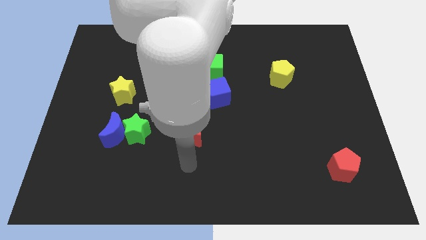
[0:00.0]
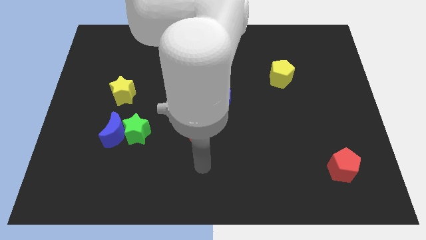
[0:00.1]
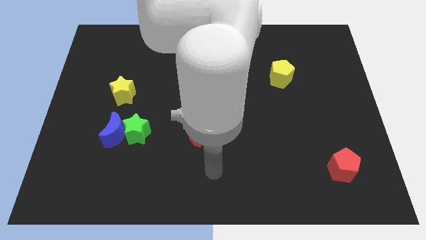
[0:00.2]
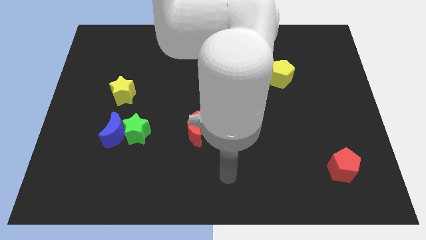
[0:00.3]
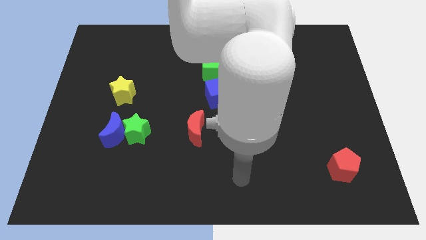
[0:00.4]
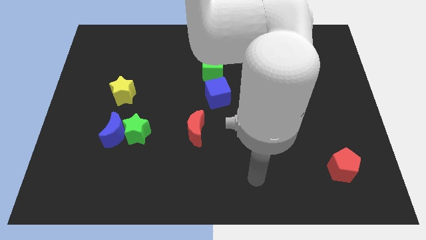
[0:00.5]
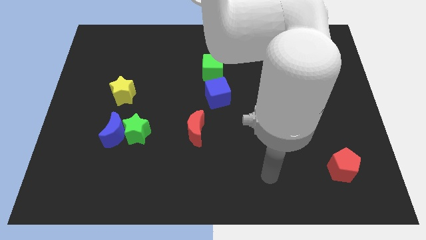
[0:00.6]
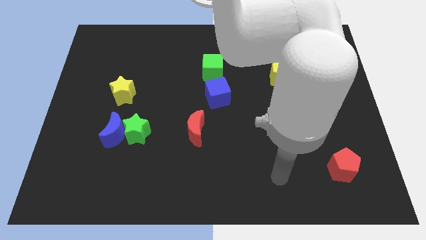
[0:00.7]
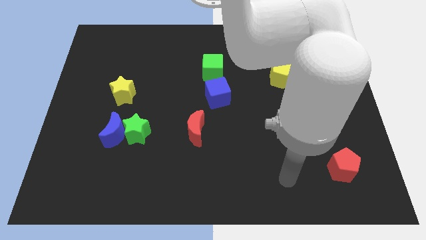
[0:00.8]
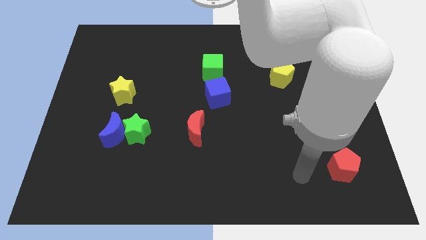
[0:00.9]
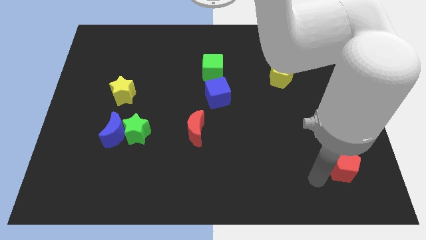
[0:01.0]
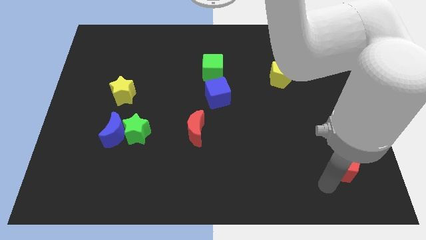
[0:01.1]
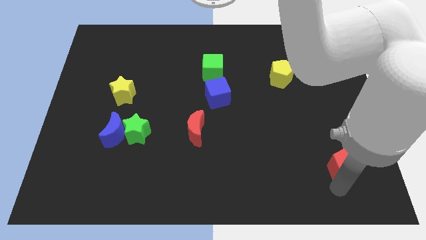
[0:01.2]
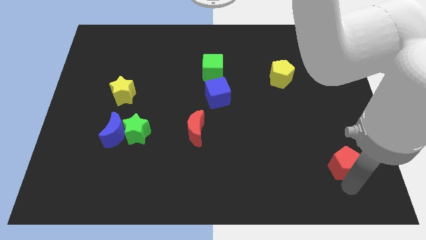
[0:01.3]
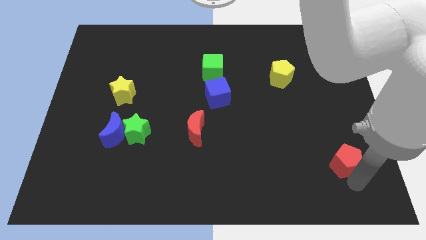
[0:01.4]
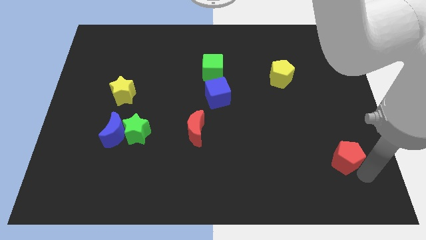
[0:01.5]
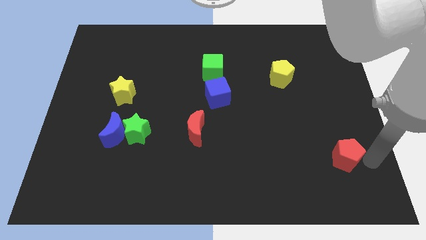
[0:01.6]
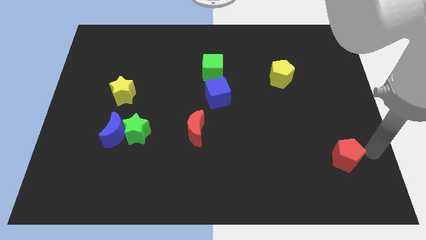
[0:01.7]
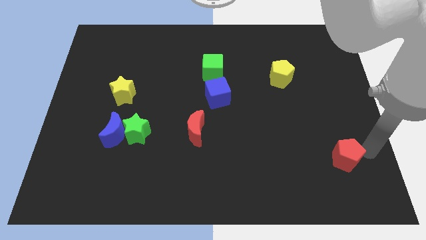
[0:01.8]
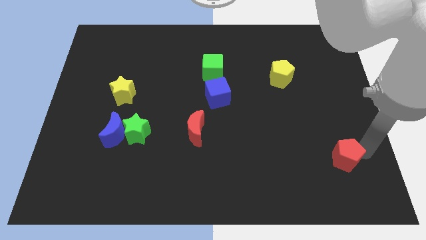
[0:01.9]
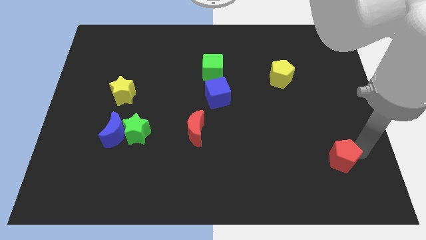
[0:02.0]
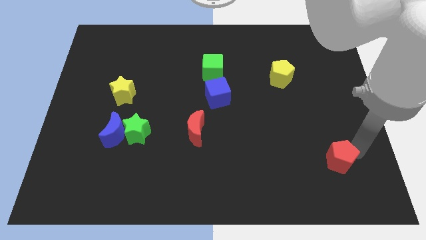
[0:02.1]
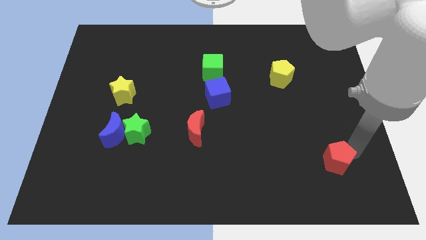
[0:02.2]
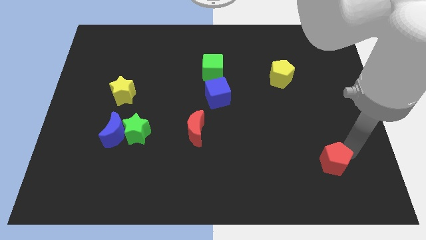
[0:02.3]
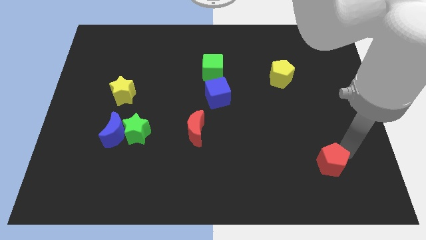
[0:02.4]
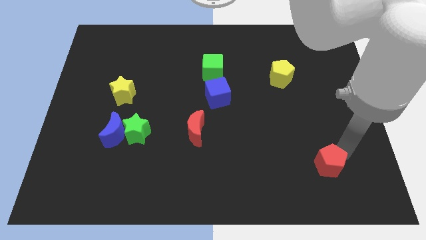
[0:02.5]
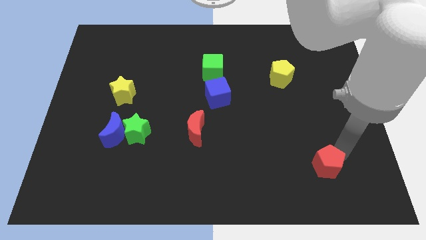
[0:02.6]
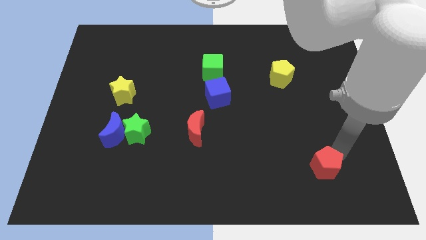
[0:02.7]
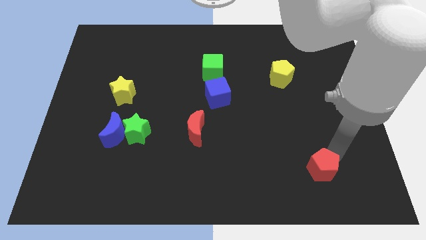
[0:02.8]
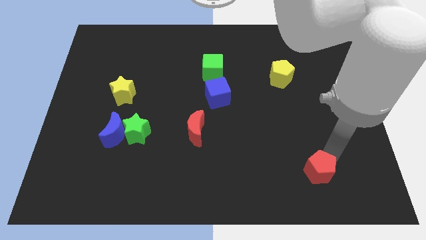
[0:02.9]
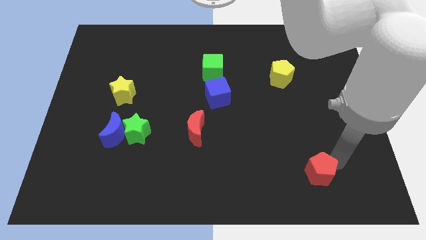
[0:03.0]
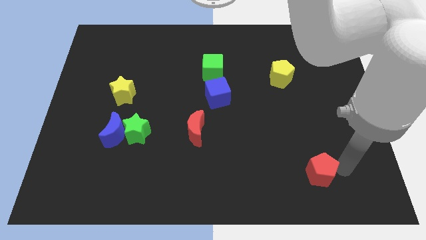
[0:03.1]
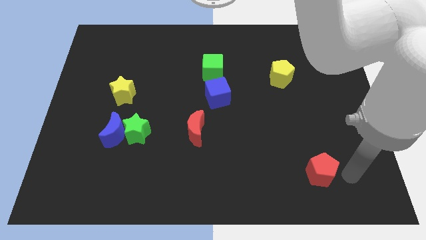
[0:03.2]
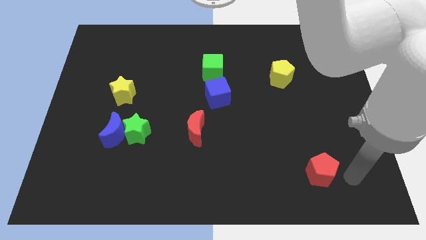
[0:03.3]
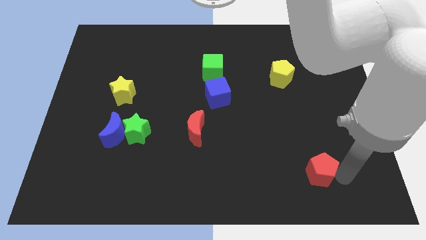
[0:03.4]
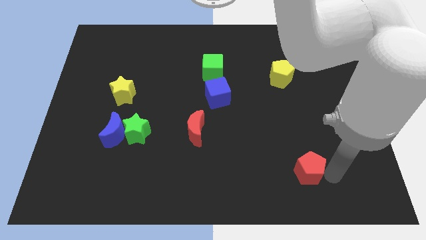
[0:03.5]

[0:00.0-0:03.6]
slightly move the red pentagon to the left

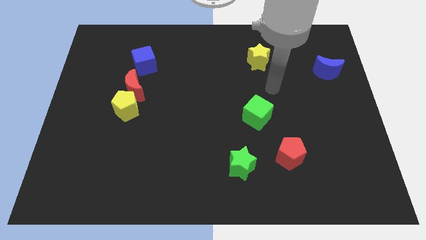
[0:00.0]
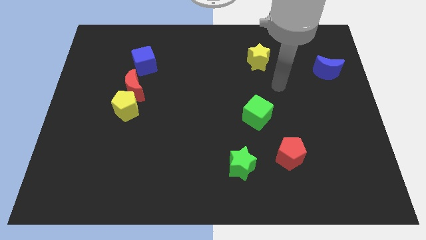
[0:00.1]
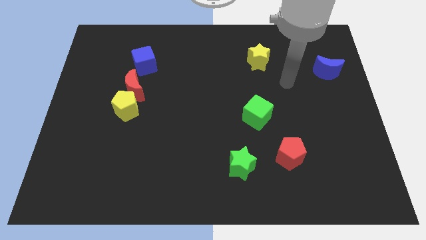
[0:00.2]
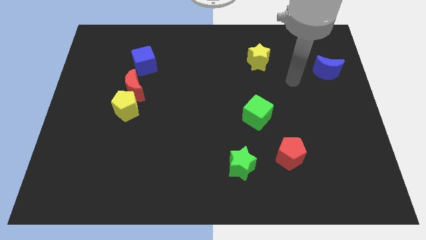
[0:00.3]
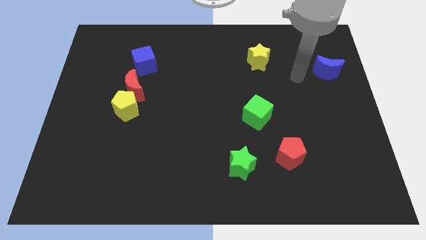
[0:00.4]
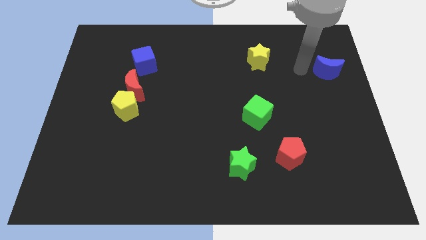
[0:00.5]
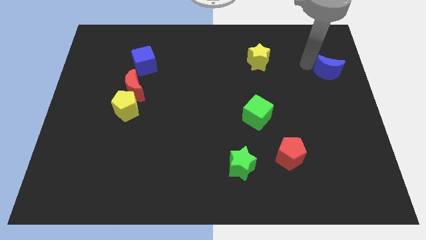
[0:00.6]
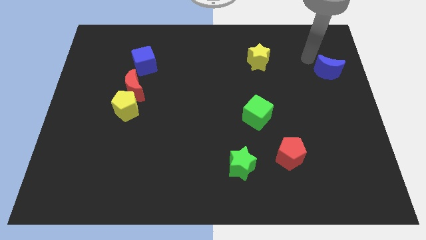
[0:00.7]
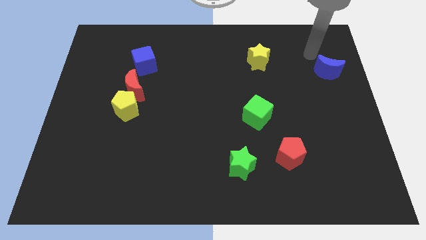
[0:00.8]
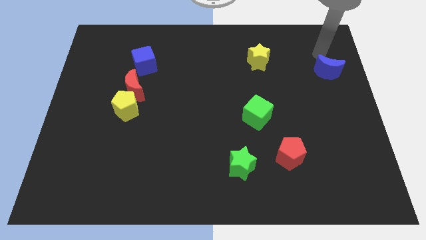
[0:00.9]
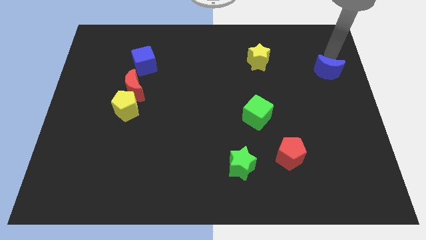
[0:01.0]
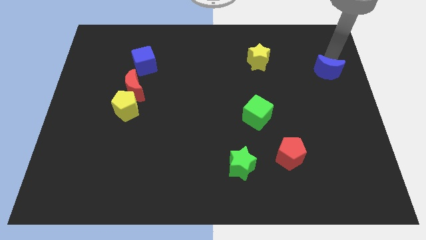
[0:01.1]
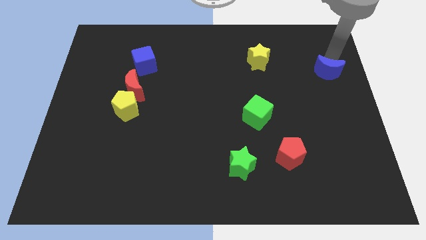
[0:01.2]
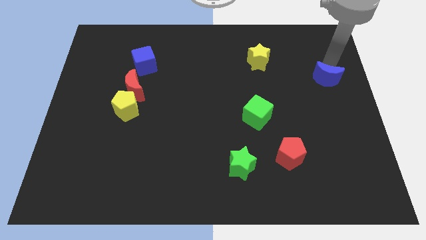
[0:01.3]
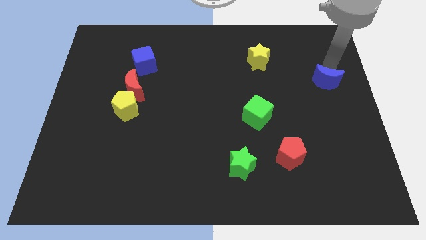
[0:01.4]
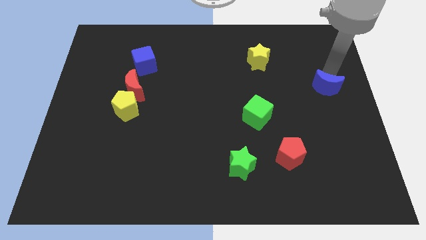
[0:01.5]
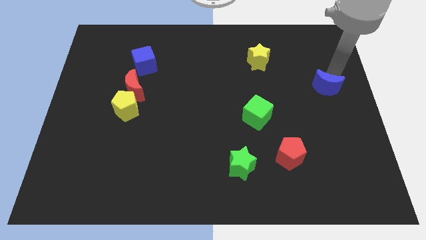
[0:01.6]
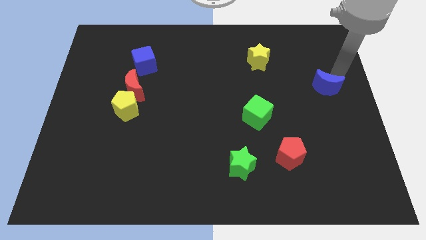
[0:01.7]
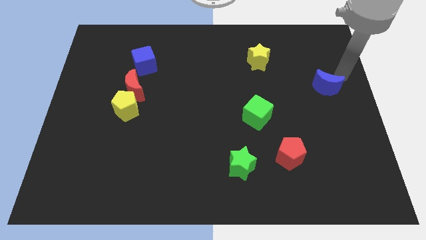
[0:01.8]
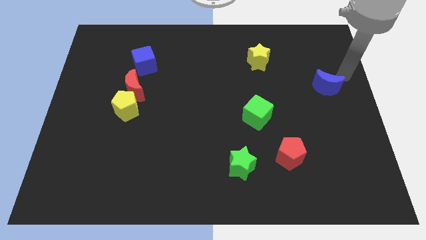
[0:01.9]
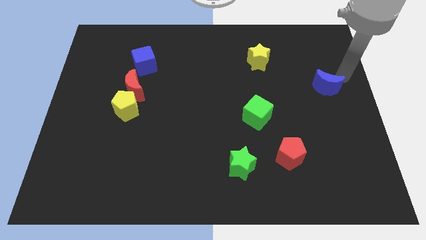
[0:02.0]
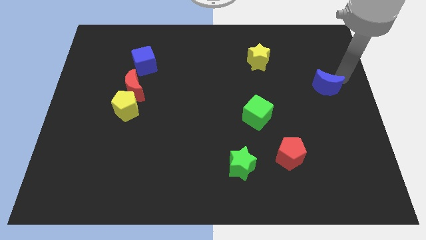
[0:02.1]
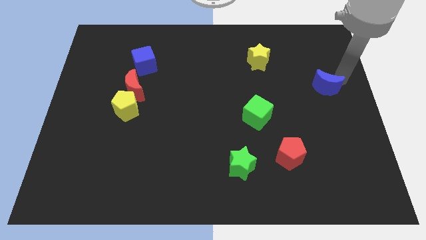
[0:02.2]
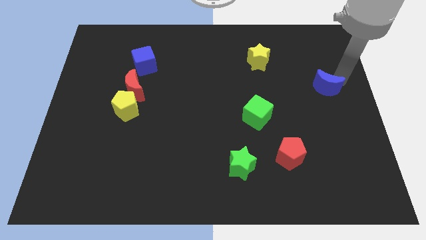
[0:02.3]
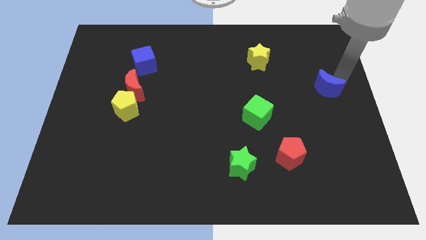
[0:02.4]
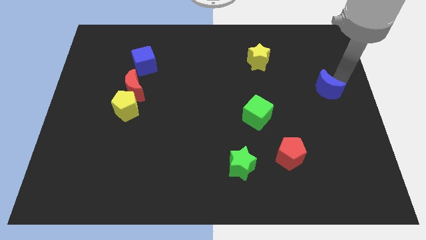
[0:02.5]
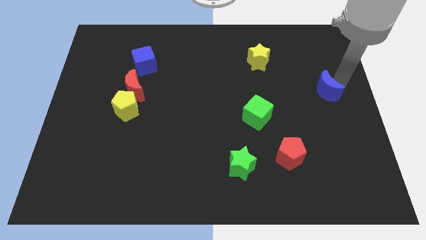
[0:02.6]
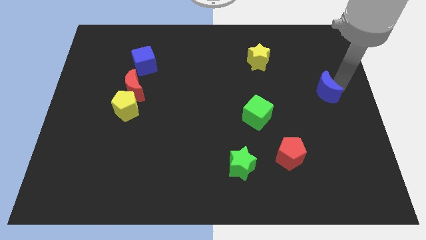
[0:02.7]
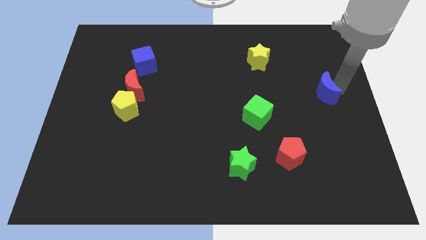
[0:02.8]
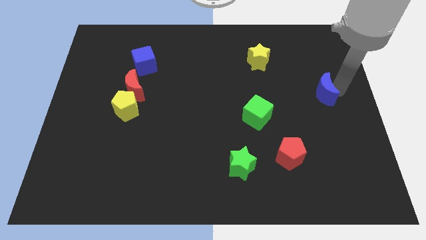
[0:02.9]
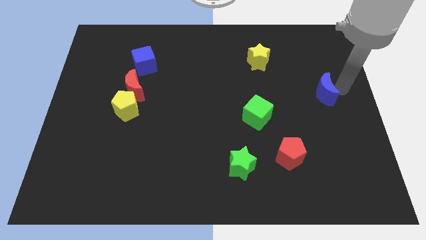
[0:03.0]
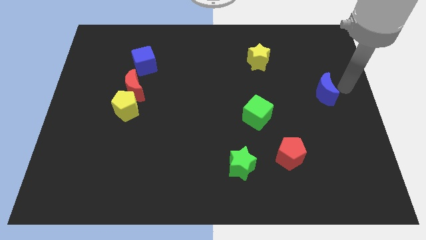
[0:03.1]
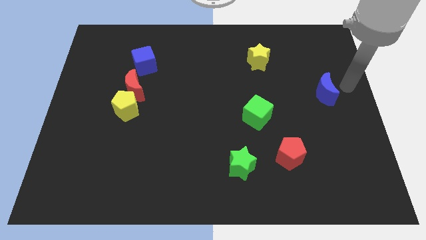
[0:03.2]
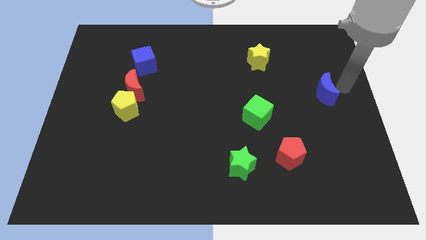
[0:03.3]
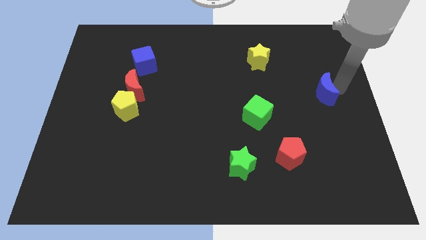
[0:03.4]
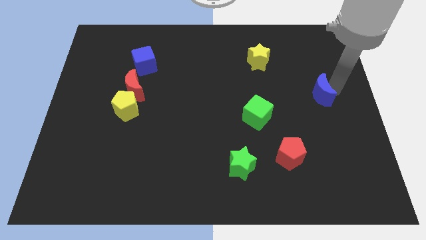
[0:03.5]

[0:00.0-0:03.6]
slide the blue moon a little bit diagonally down and left

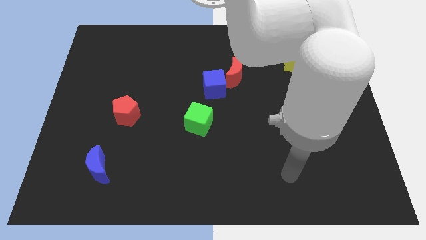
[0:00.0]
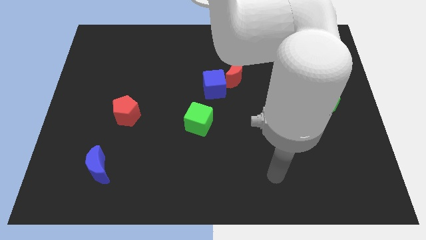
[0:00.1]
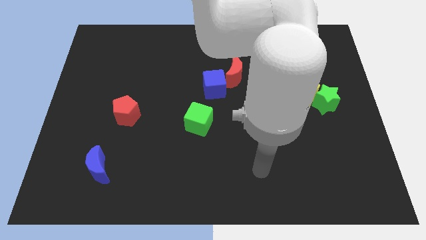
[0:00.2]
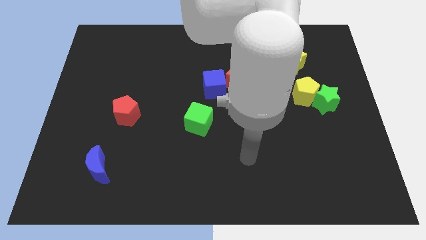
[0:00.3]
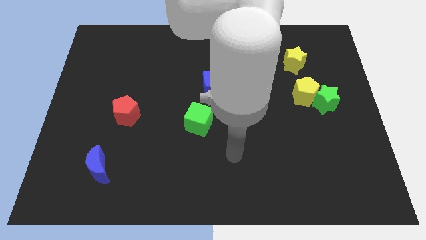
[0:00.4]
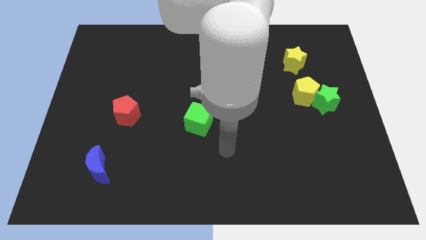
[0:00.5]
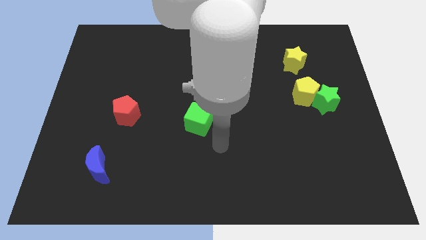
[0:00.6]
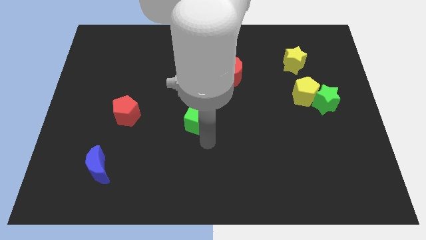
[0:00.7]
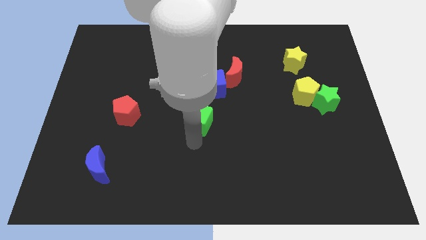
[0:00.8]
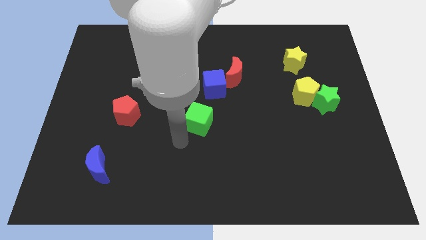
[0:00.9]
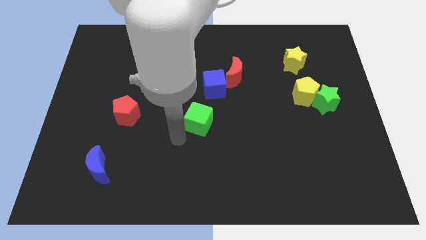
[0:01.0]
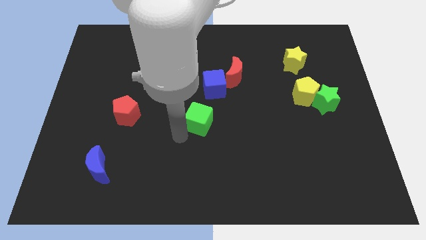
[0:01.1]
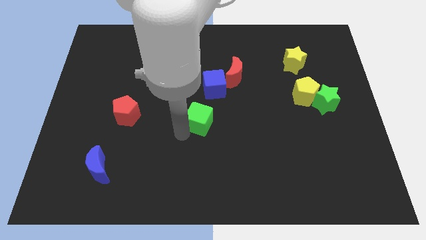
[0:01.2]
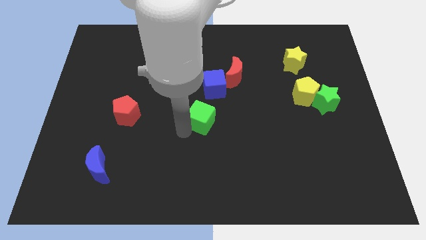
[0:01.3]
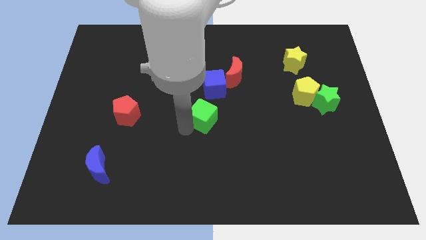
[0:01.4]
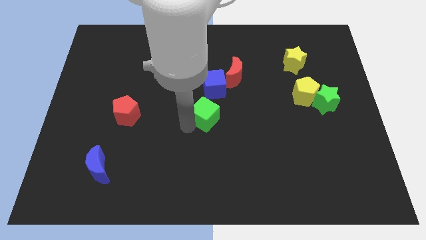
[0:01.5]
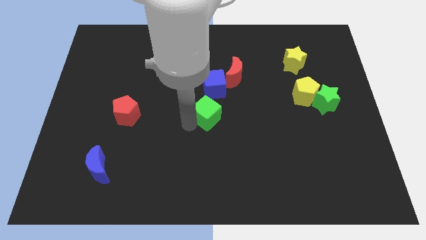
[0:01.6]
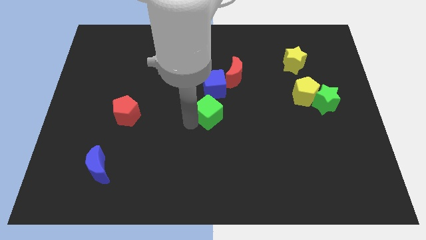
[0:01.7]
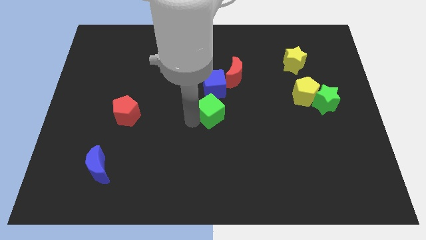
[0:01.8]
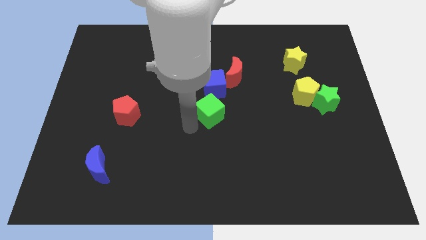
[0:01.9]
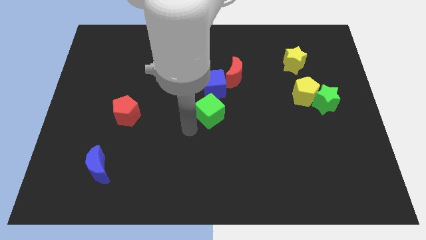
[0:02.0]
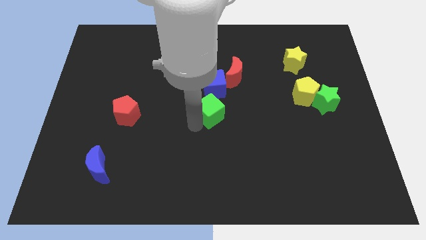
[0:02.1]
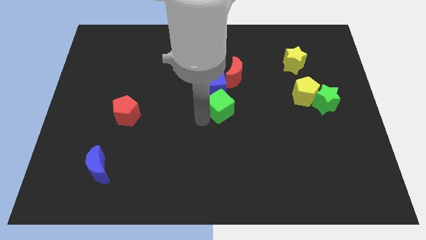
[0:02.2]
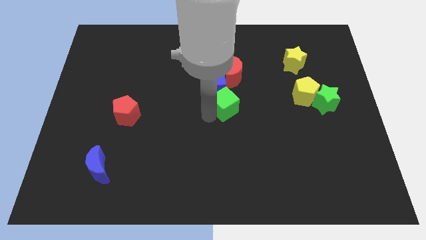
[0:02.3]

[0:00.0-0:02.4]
move the green cube somewhat up and right
